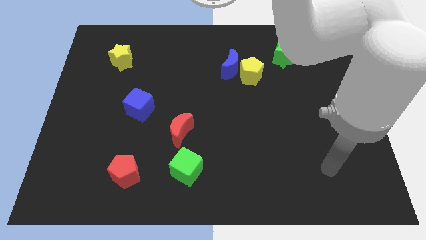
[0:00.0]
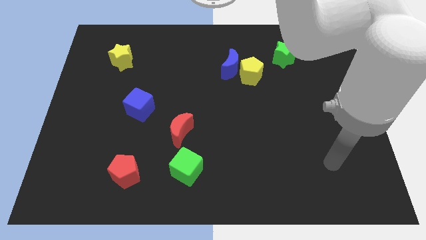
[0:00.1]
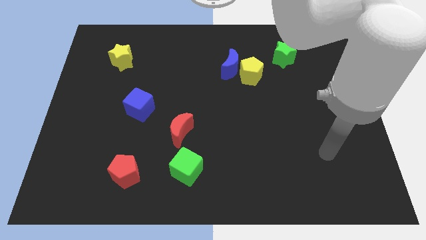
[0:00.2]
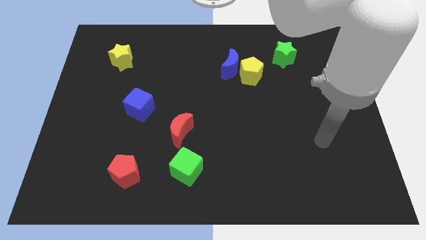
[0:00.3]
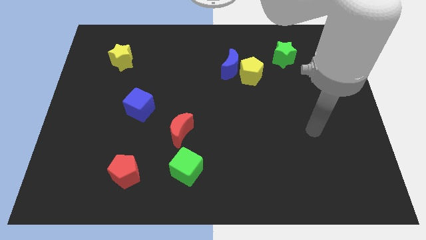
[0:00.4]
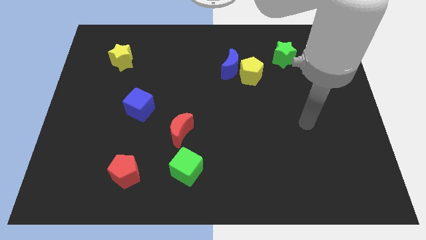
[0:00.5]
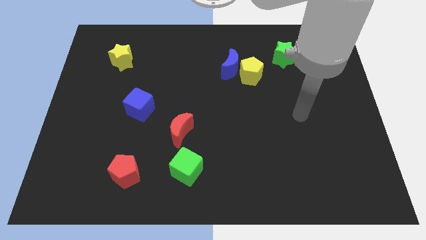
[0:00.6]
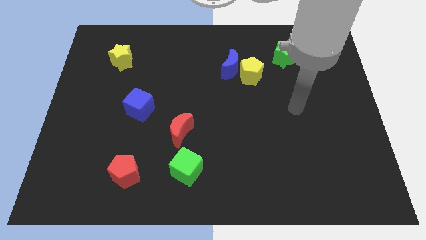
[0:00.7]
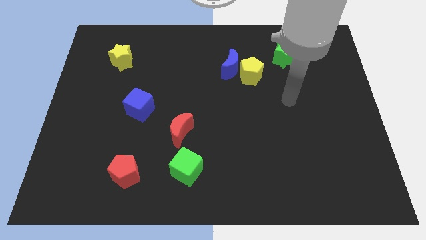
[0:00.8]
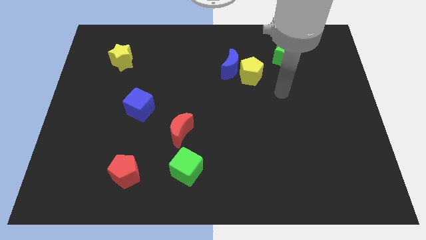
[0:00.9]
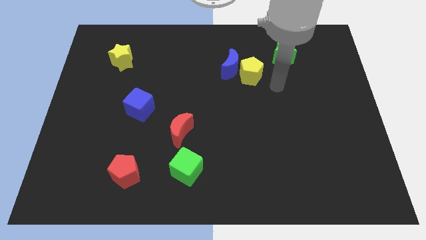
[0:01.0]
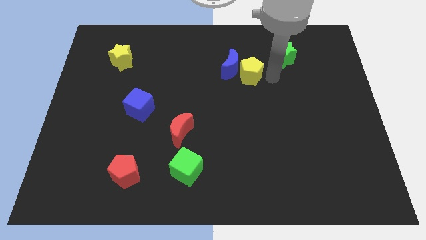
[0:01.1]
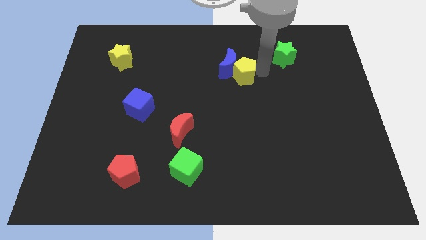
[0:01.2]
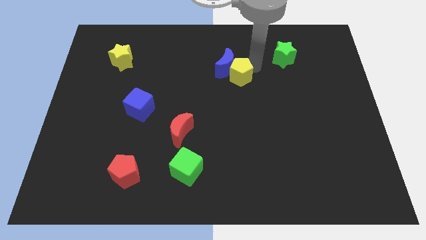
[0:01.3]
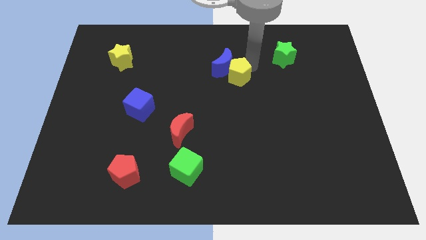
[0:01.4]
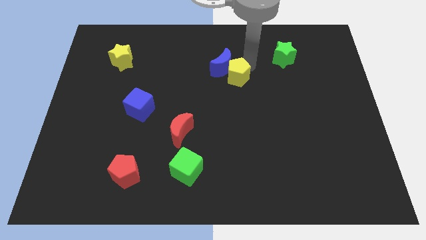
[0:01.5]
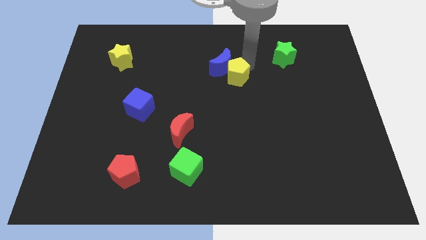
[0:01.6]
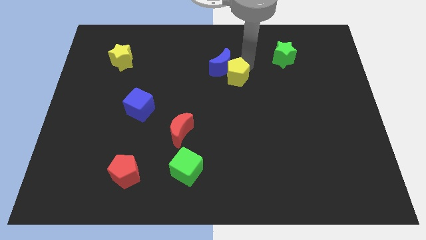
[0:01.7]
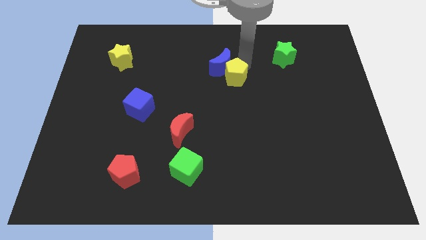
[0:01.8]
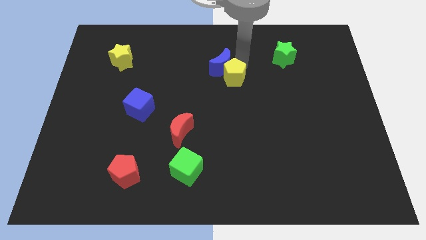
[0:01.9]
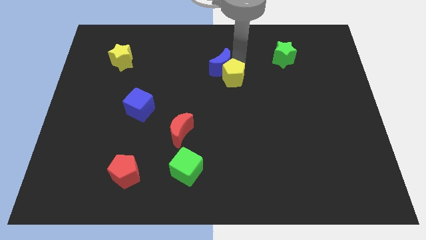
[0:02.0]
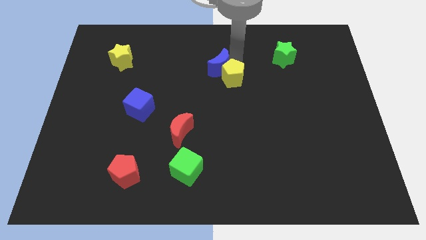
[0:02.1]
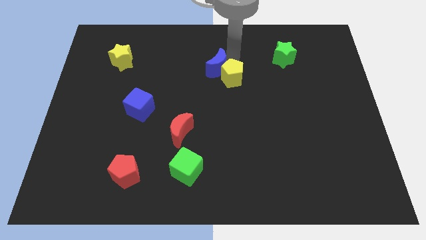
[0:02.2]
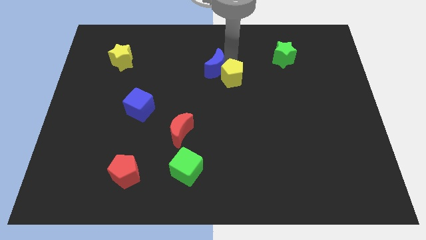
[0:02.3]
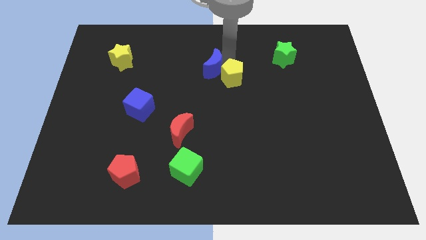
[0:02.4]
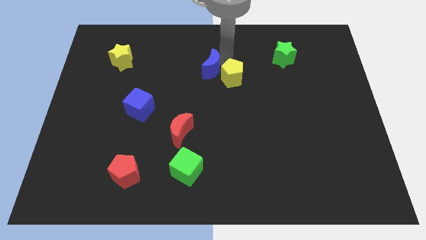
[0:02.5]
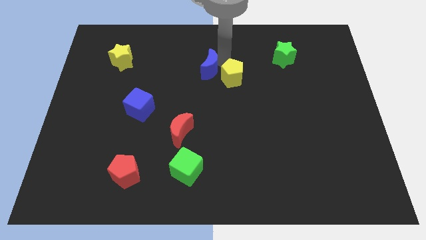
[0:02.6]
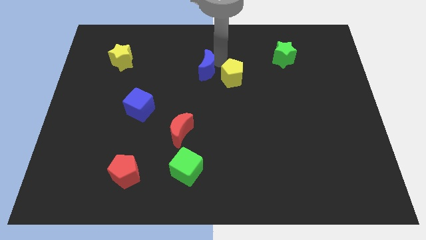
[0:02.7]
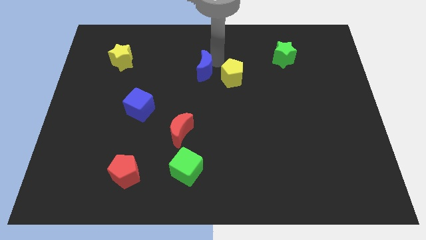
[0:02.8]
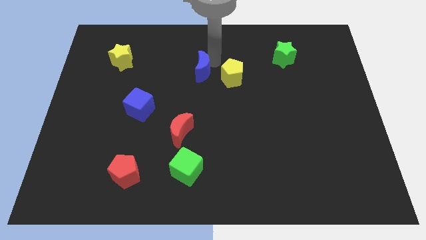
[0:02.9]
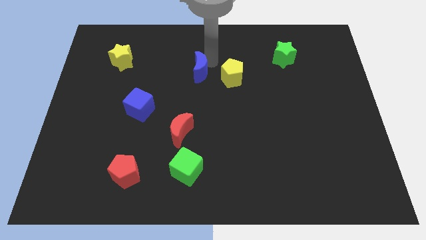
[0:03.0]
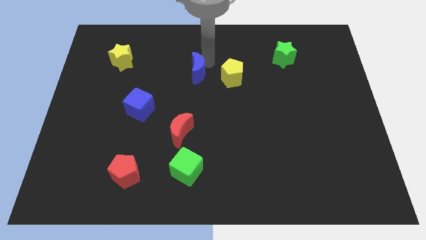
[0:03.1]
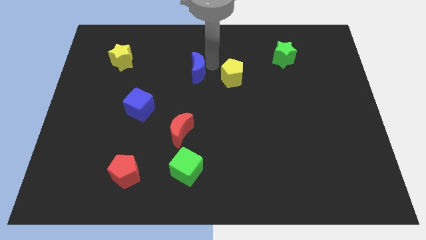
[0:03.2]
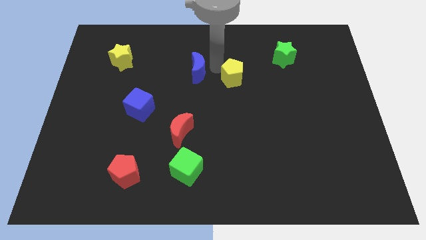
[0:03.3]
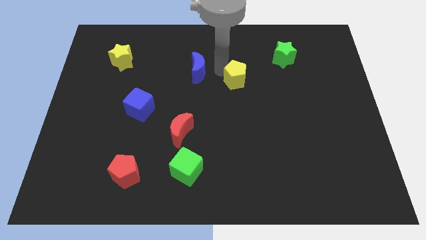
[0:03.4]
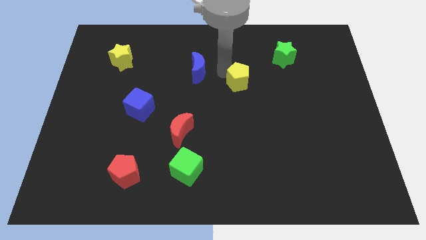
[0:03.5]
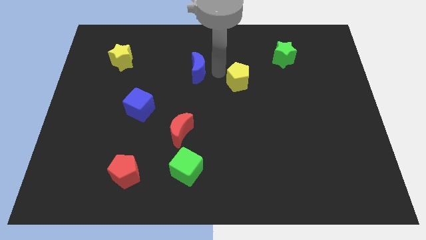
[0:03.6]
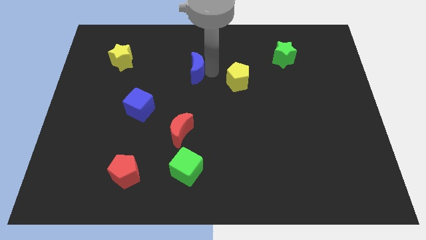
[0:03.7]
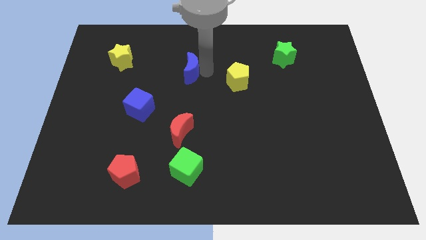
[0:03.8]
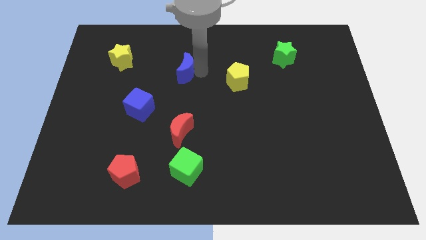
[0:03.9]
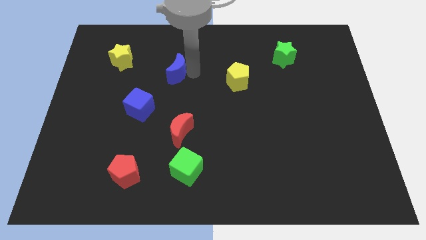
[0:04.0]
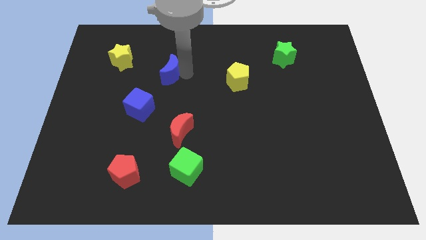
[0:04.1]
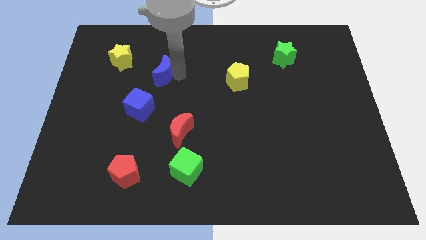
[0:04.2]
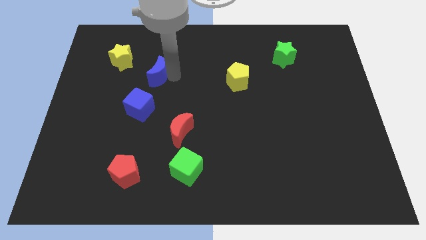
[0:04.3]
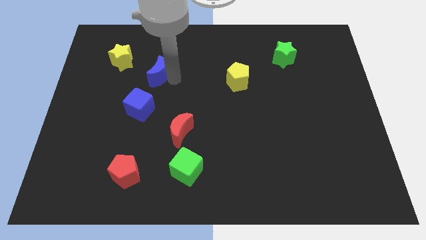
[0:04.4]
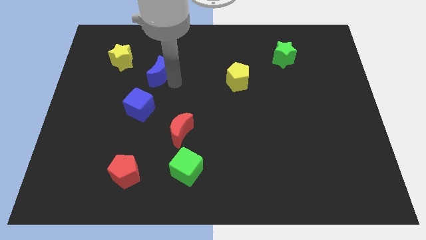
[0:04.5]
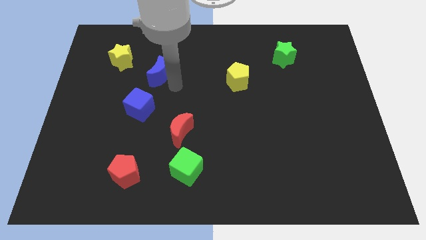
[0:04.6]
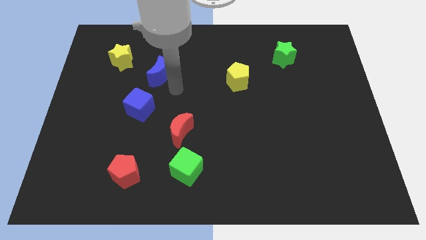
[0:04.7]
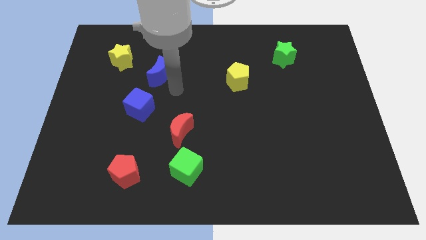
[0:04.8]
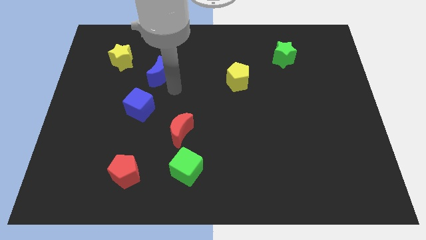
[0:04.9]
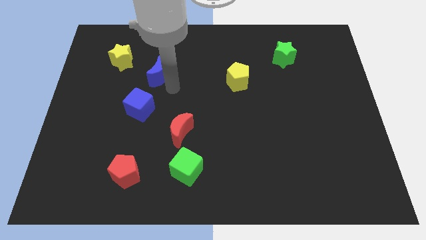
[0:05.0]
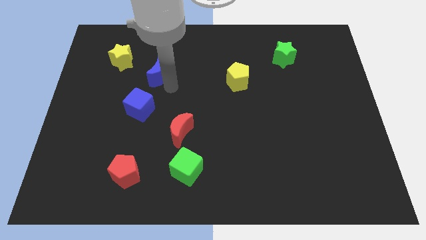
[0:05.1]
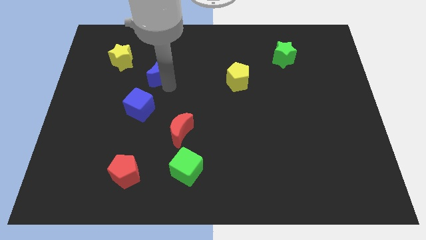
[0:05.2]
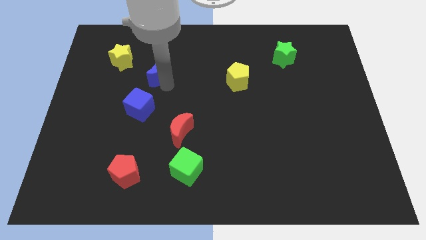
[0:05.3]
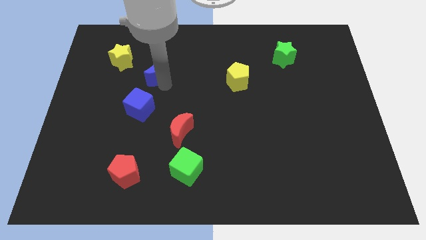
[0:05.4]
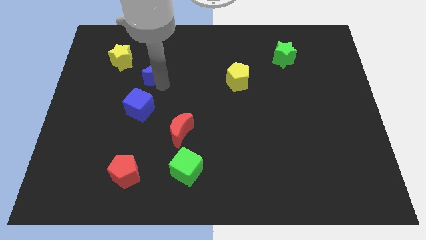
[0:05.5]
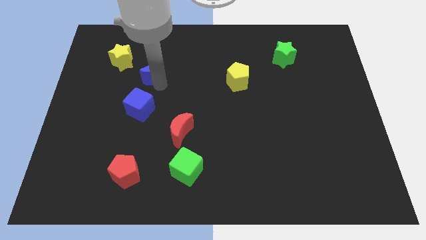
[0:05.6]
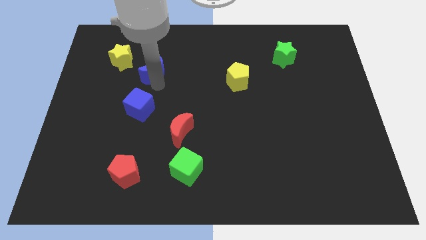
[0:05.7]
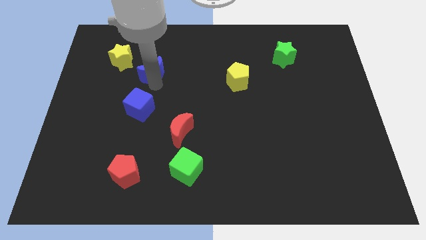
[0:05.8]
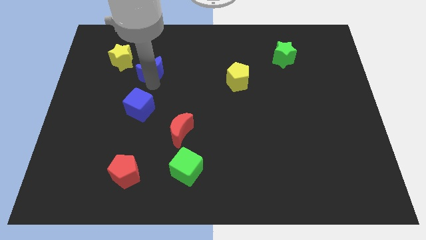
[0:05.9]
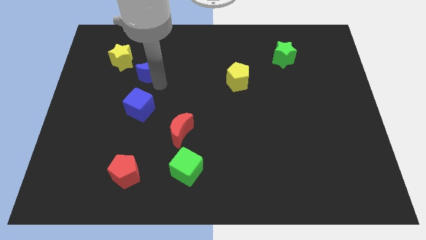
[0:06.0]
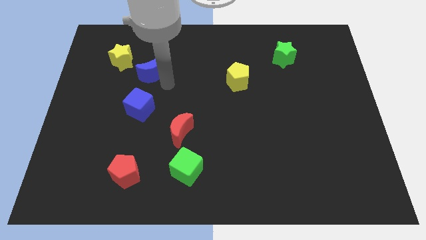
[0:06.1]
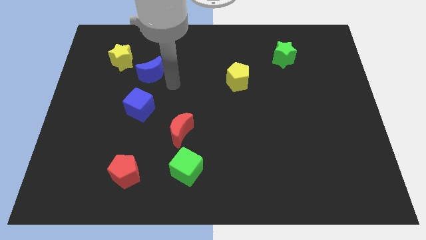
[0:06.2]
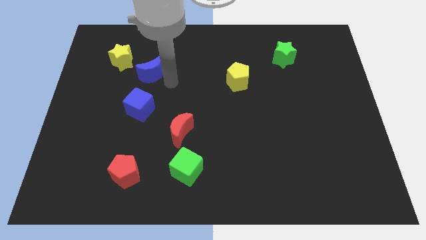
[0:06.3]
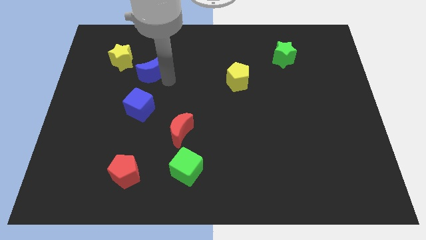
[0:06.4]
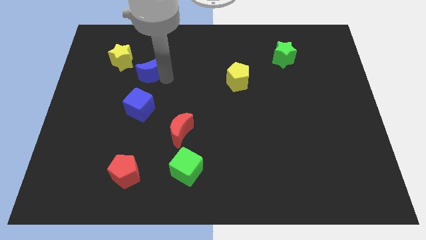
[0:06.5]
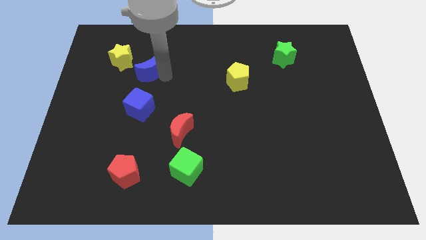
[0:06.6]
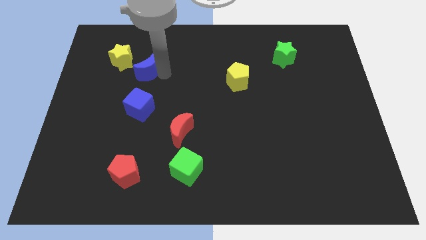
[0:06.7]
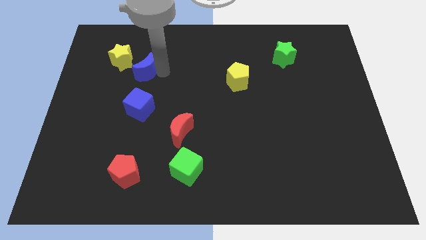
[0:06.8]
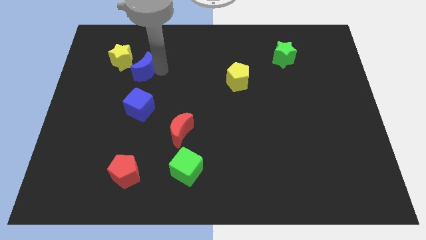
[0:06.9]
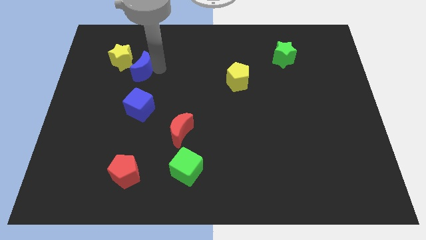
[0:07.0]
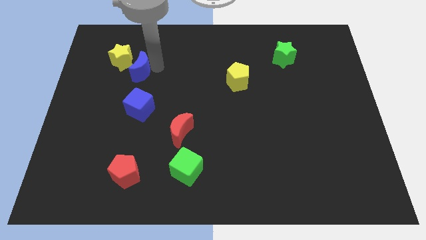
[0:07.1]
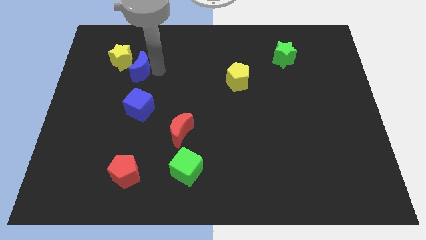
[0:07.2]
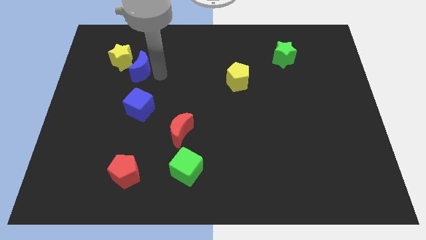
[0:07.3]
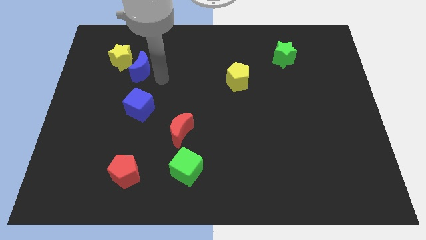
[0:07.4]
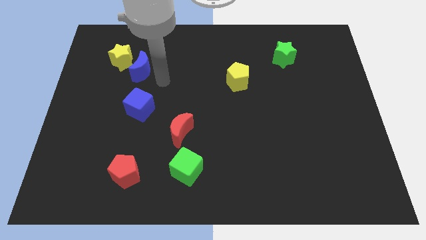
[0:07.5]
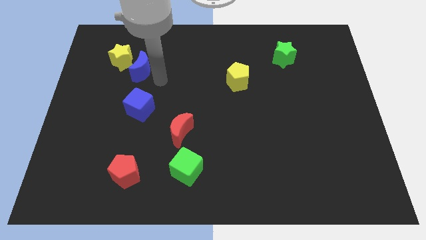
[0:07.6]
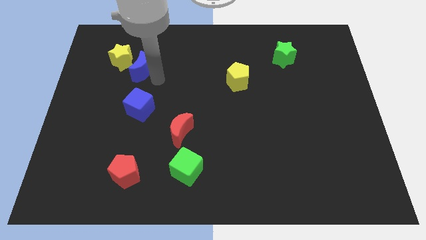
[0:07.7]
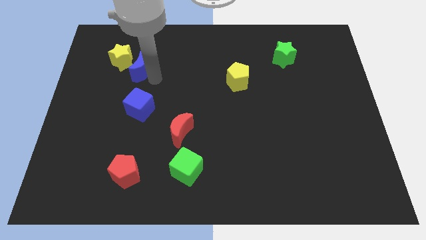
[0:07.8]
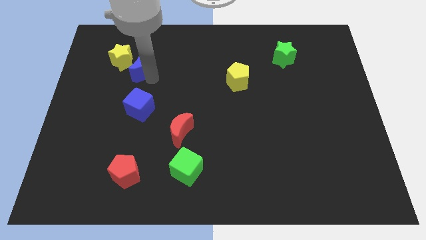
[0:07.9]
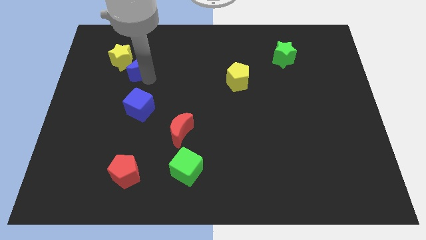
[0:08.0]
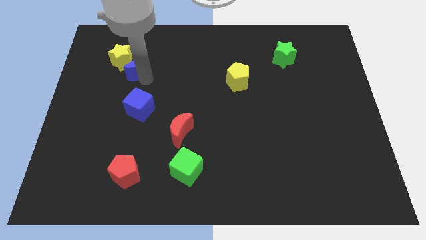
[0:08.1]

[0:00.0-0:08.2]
slide the blue moon to the yellow star
